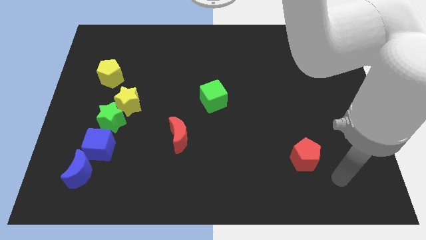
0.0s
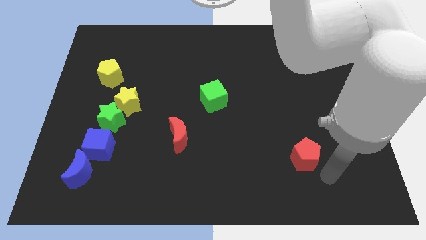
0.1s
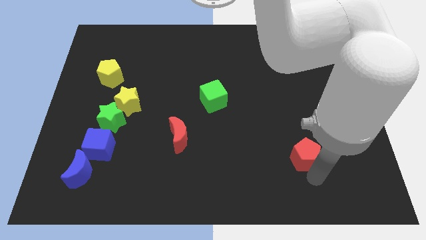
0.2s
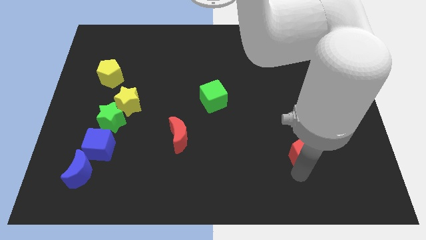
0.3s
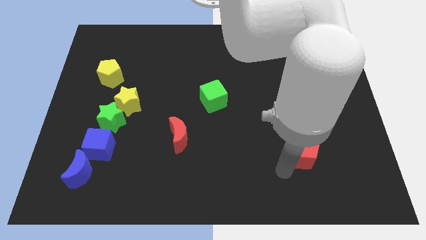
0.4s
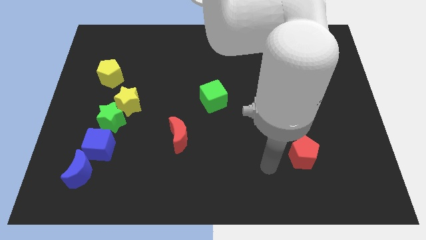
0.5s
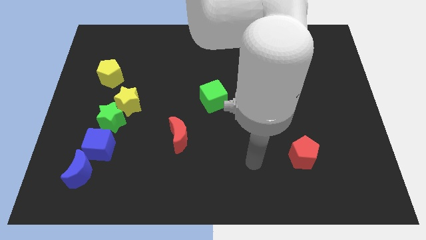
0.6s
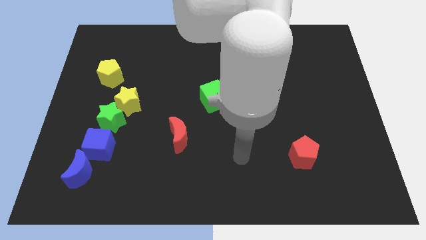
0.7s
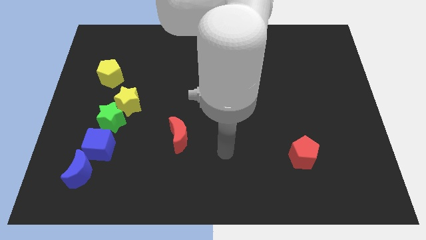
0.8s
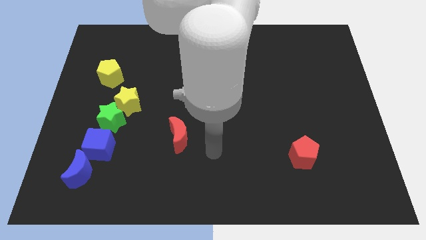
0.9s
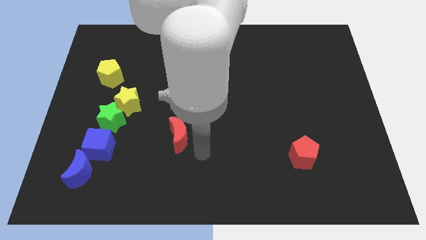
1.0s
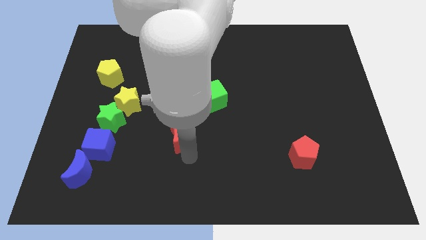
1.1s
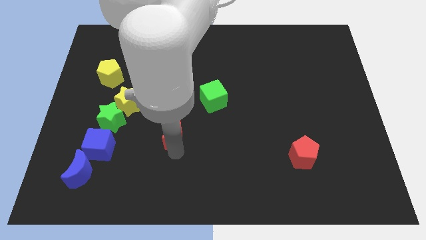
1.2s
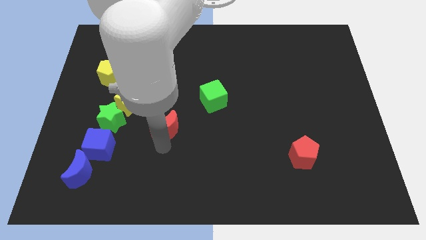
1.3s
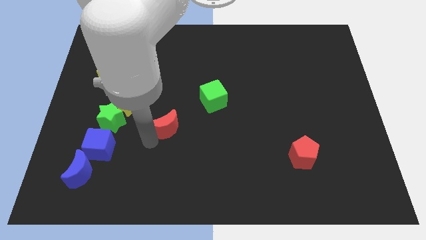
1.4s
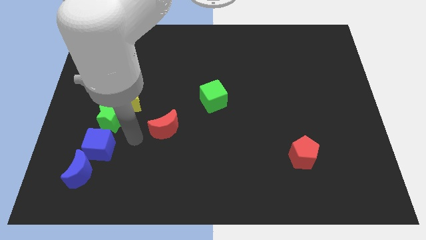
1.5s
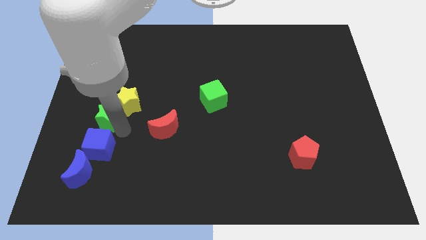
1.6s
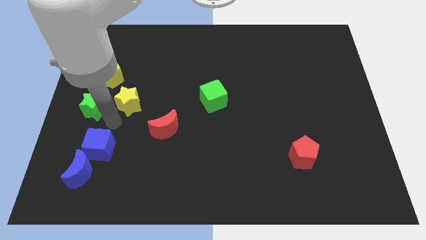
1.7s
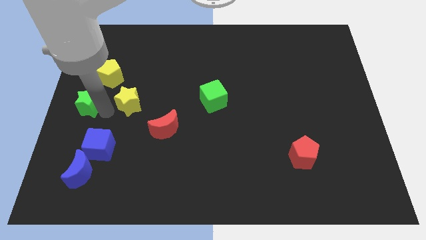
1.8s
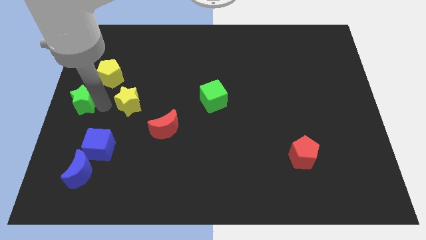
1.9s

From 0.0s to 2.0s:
pull the yellow star apart from the green star

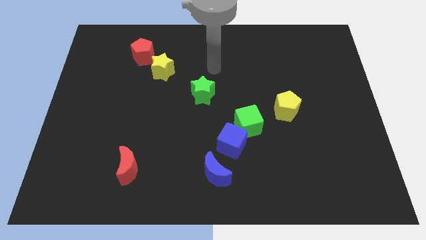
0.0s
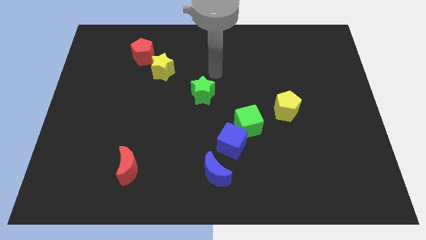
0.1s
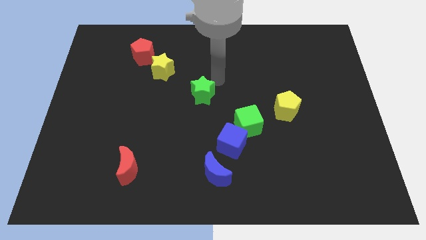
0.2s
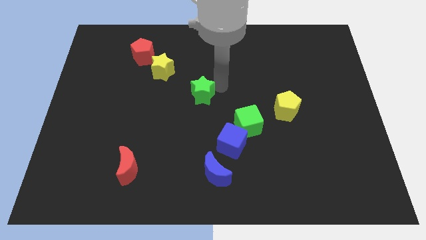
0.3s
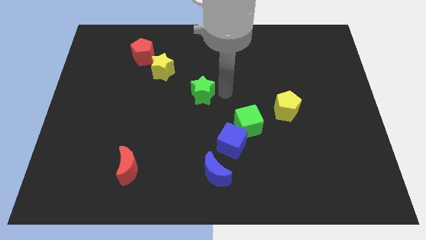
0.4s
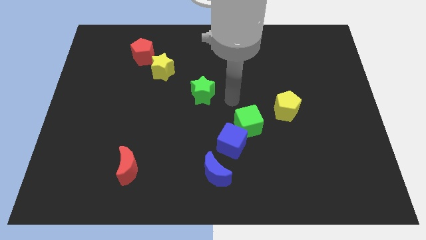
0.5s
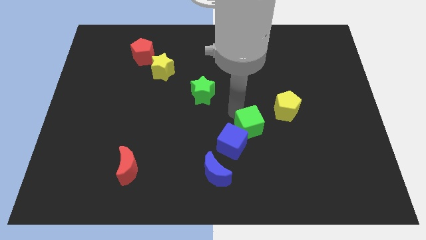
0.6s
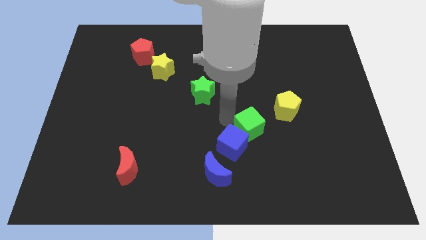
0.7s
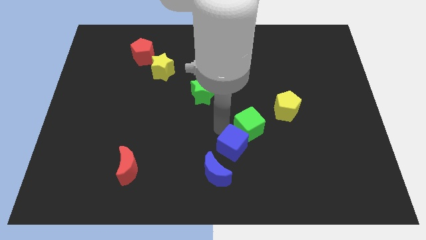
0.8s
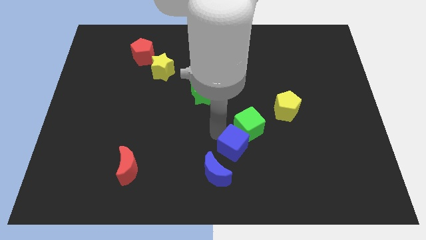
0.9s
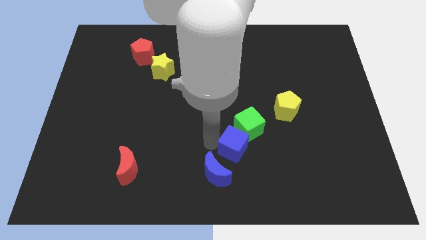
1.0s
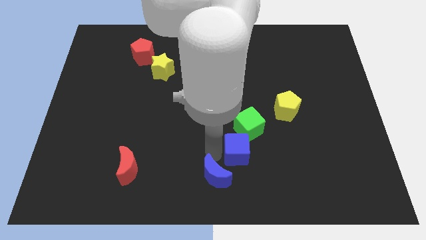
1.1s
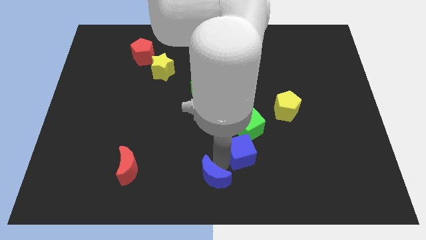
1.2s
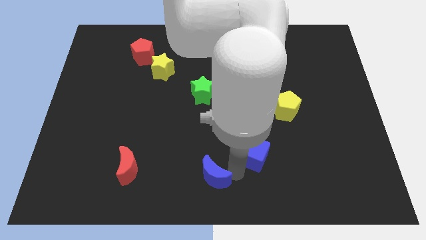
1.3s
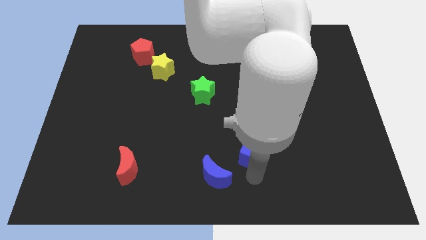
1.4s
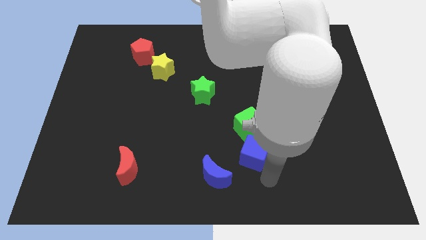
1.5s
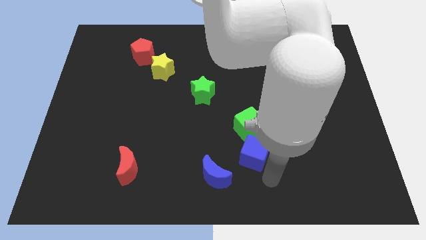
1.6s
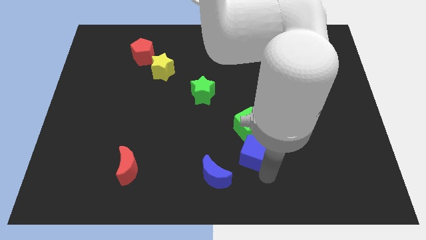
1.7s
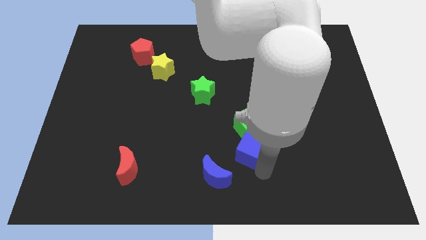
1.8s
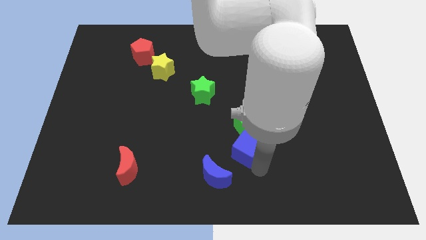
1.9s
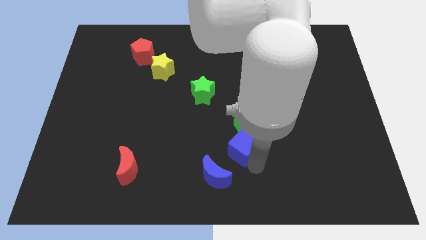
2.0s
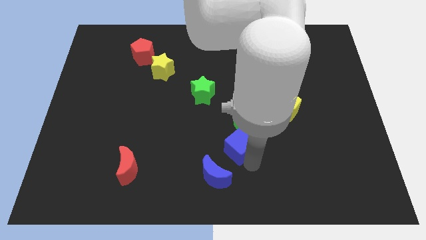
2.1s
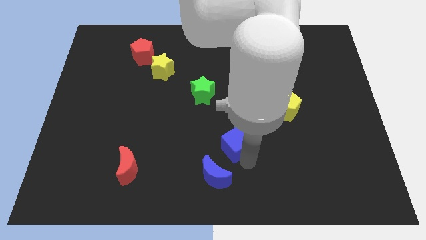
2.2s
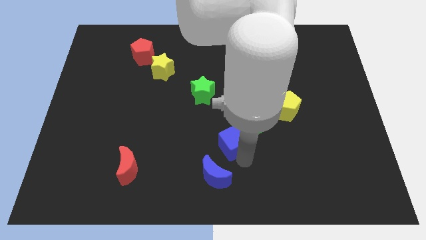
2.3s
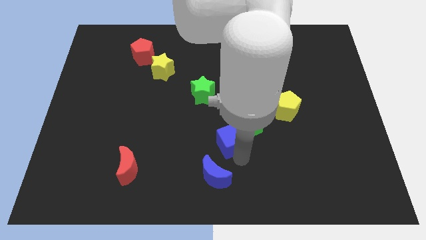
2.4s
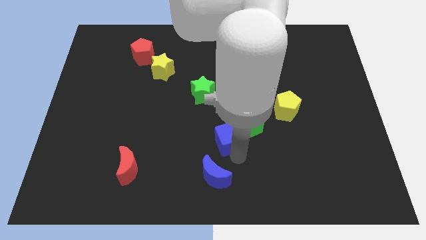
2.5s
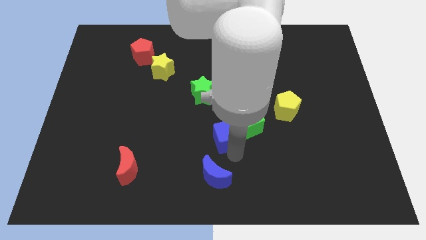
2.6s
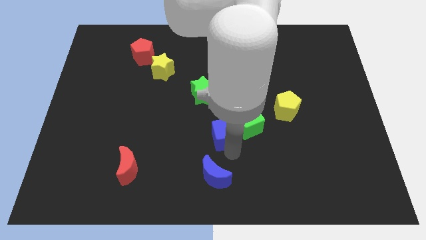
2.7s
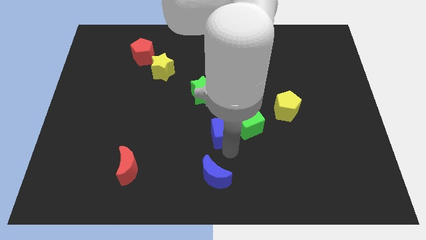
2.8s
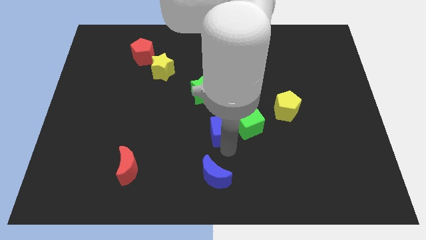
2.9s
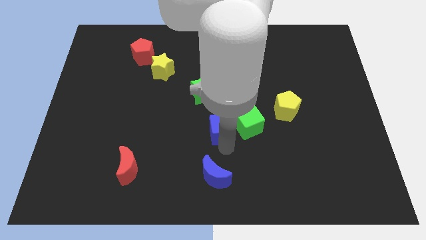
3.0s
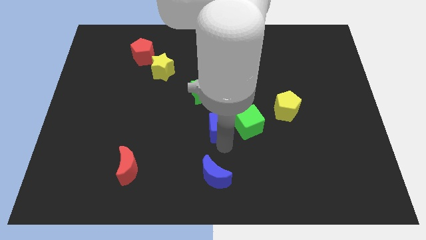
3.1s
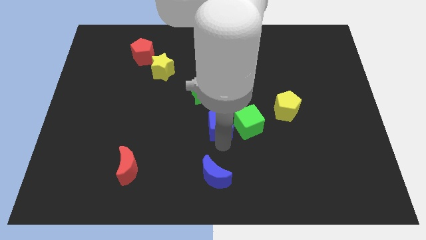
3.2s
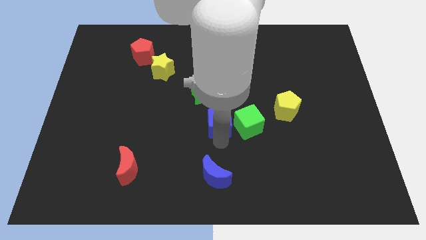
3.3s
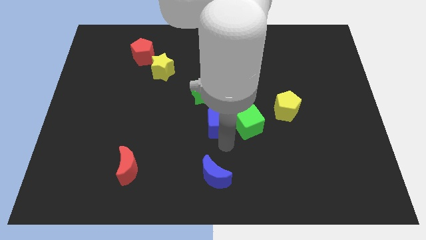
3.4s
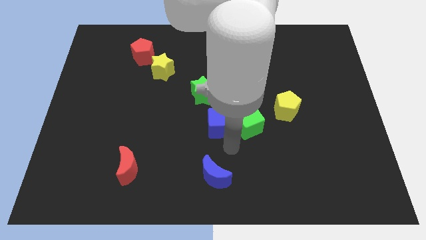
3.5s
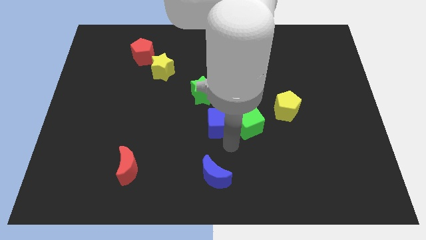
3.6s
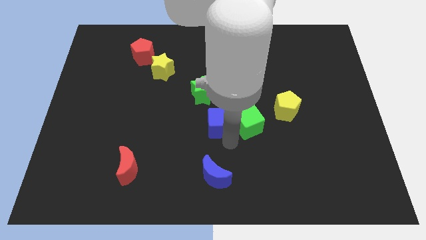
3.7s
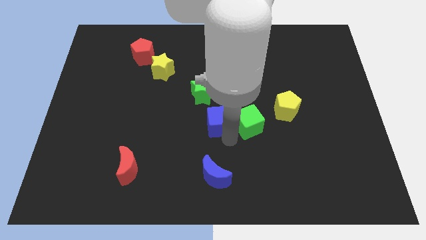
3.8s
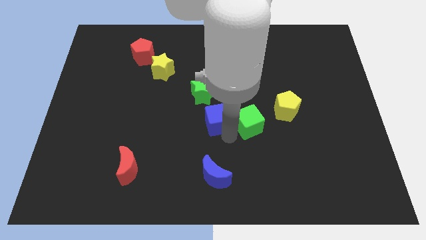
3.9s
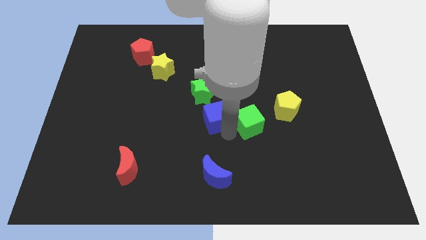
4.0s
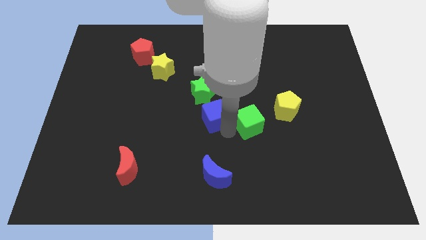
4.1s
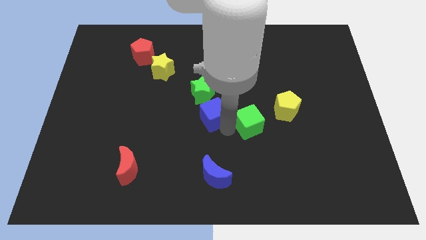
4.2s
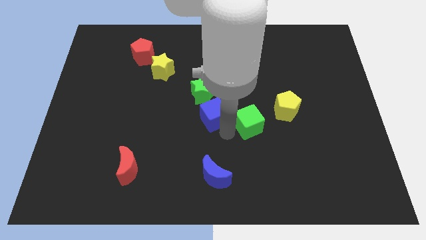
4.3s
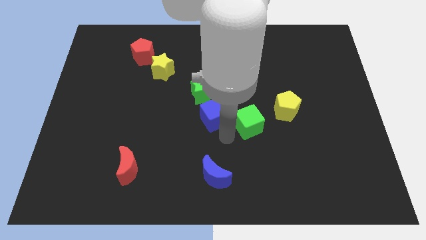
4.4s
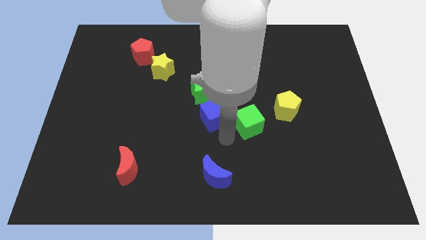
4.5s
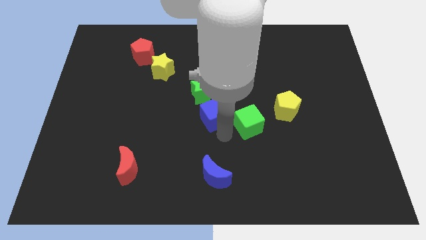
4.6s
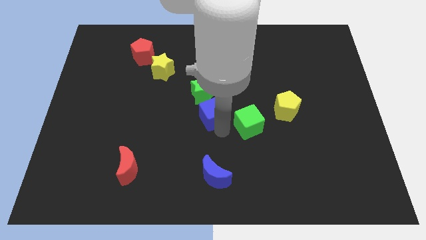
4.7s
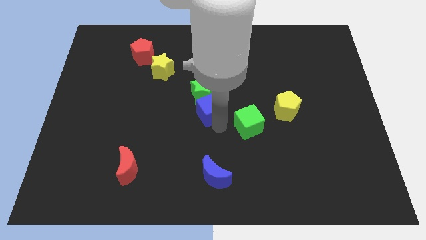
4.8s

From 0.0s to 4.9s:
pull the blue cube apart from the green cube and blue moon

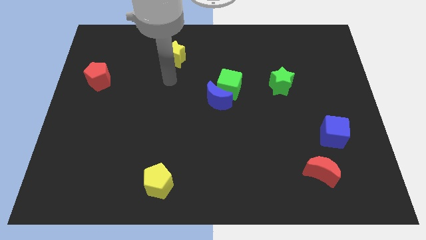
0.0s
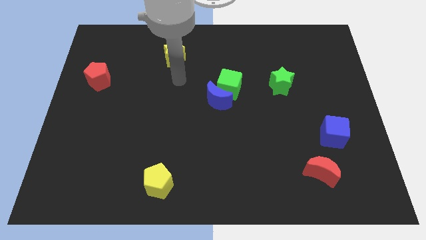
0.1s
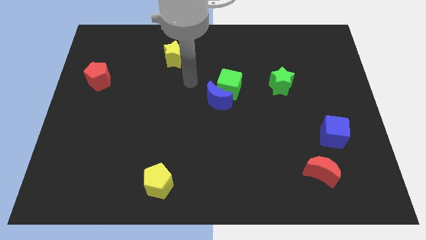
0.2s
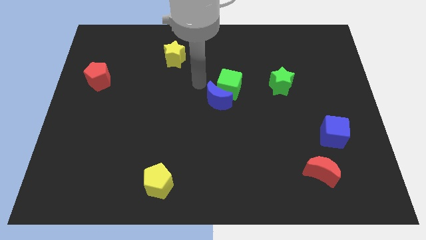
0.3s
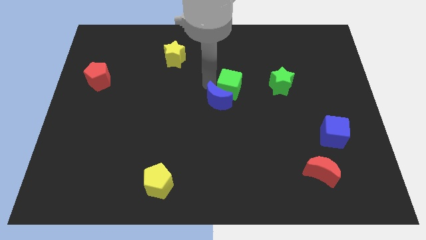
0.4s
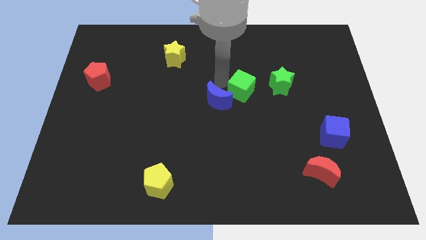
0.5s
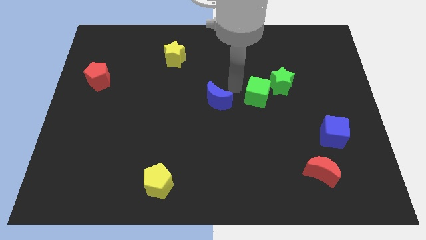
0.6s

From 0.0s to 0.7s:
pull the blue moon apart from the green cube

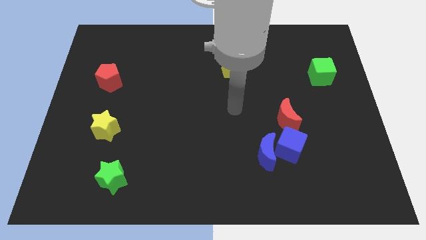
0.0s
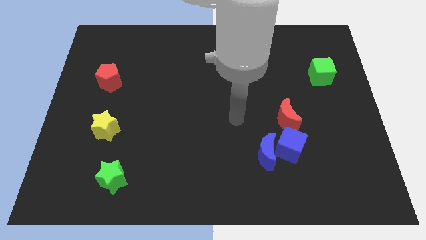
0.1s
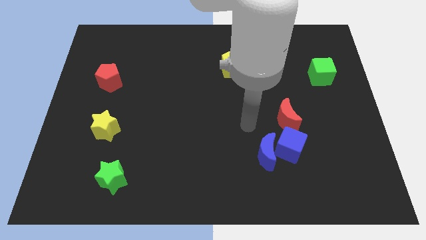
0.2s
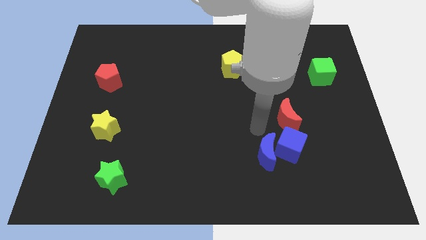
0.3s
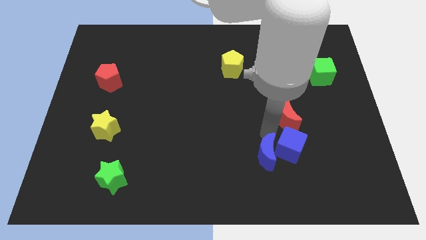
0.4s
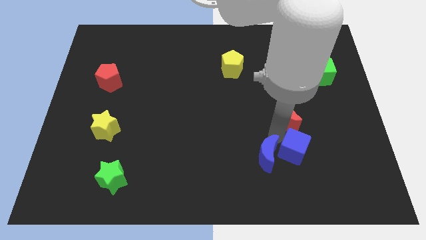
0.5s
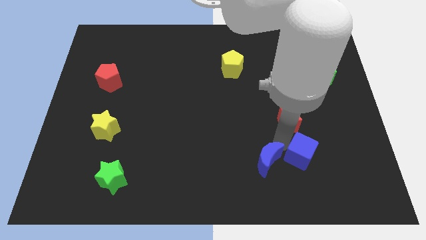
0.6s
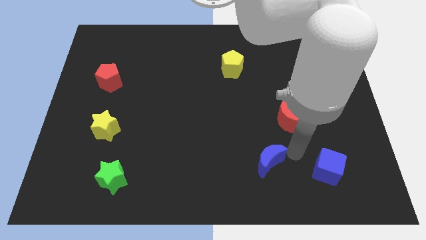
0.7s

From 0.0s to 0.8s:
move the blue moon away from the blue cube

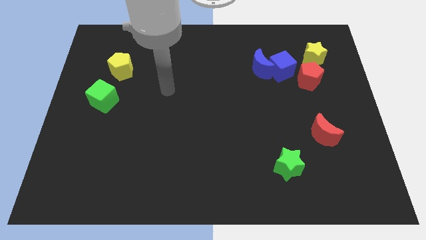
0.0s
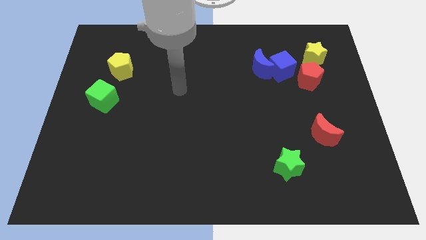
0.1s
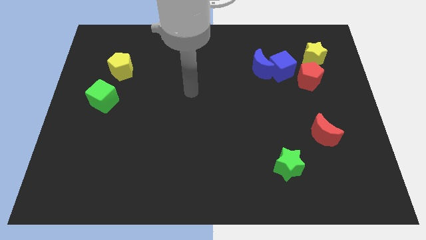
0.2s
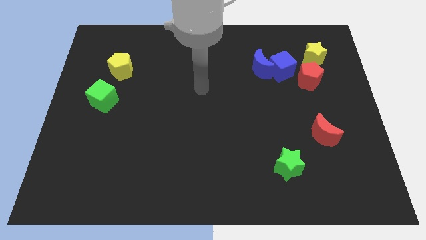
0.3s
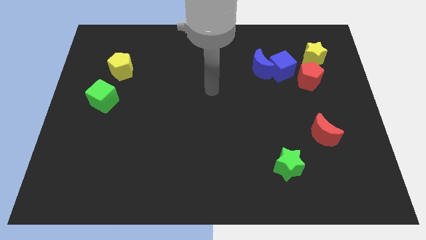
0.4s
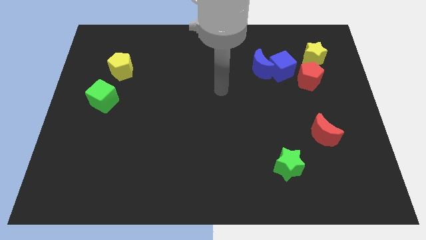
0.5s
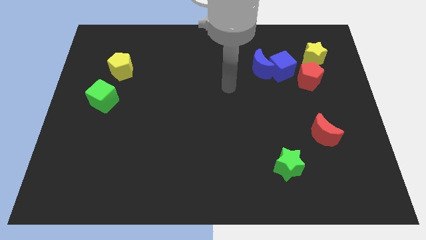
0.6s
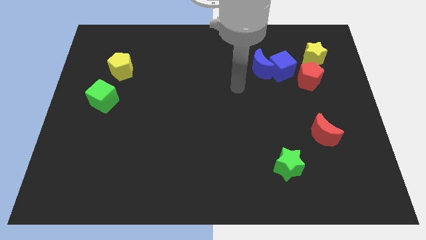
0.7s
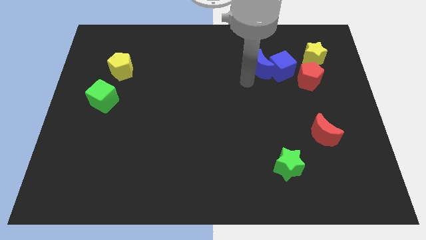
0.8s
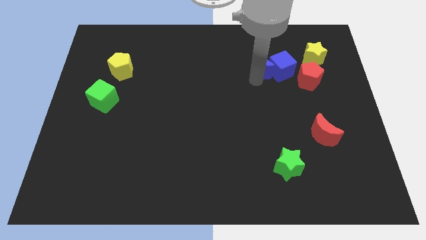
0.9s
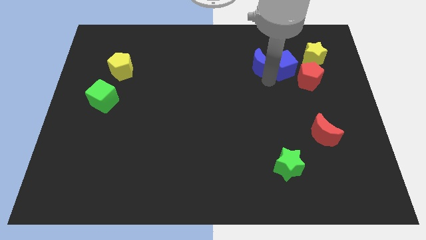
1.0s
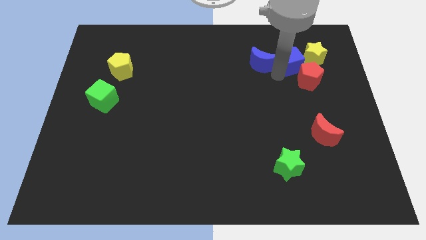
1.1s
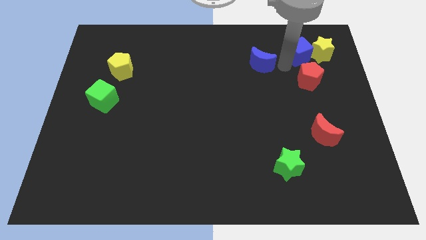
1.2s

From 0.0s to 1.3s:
pull the blue moon apart from the blue cube
